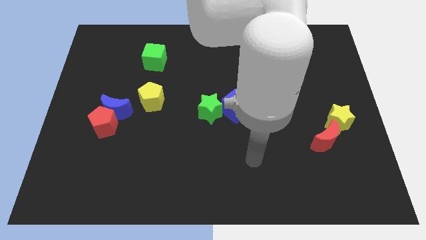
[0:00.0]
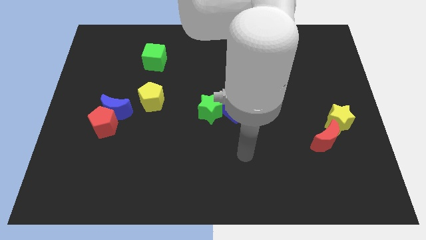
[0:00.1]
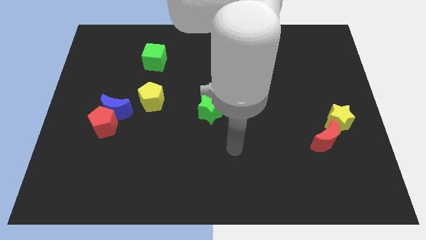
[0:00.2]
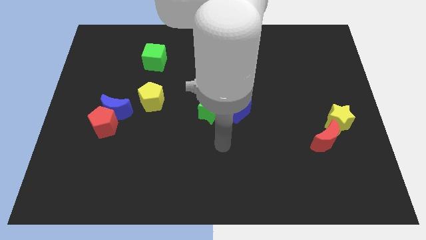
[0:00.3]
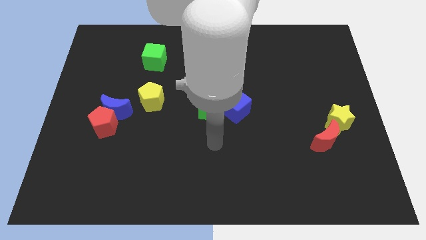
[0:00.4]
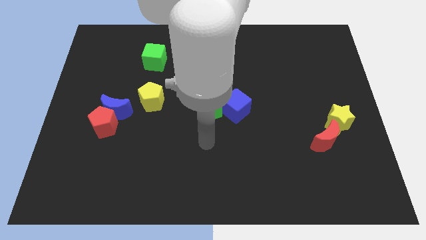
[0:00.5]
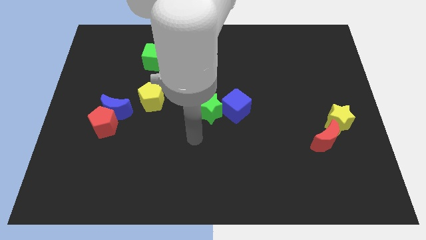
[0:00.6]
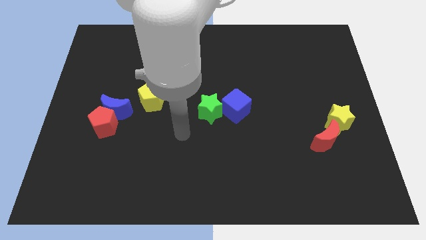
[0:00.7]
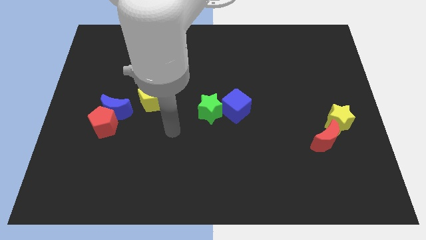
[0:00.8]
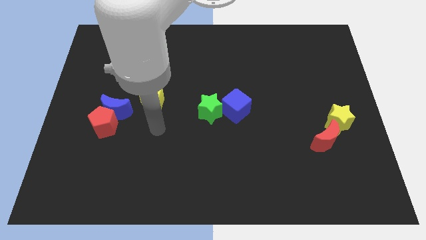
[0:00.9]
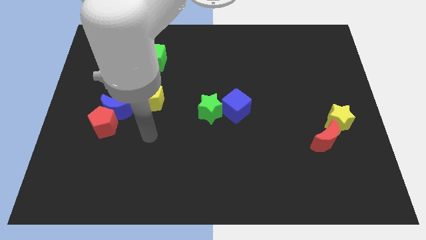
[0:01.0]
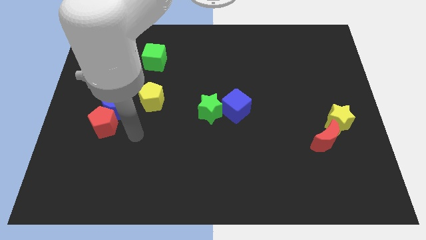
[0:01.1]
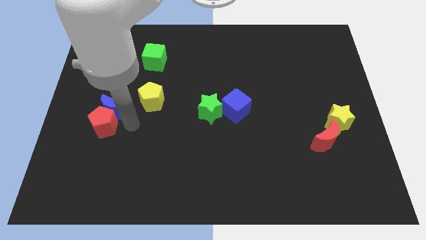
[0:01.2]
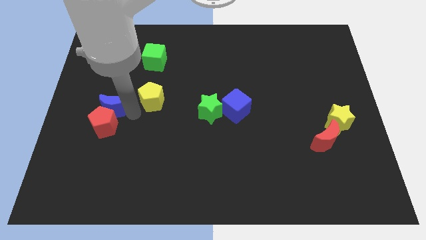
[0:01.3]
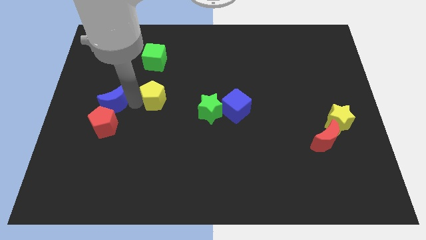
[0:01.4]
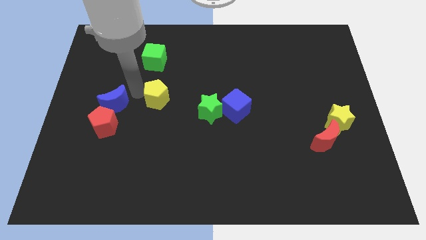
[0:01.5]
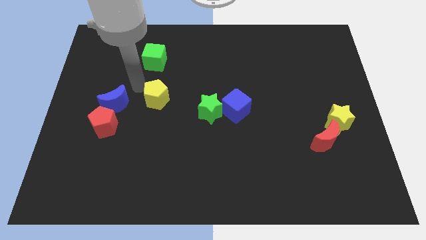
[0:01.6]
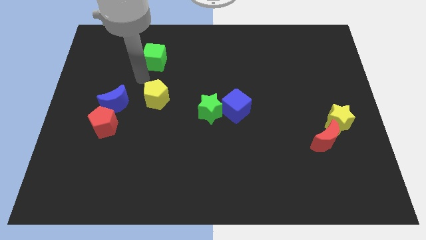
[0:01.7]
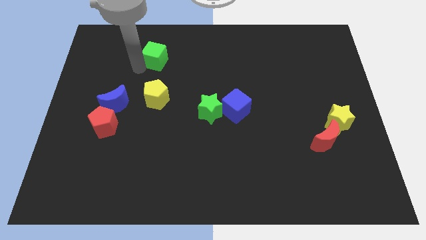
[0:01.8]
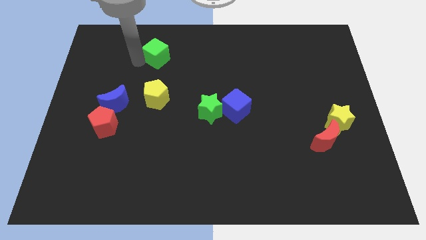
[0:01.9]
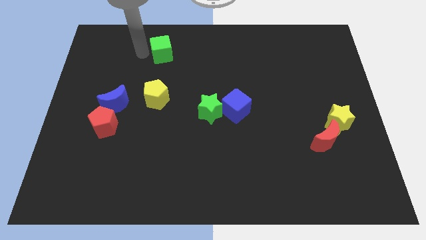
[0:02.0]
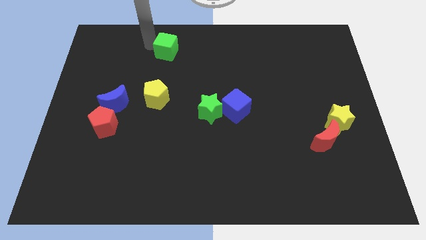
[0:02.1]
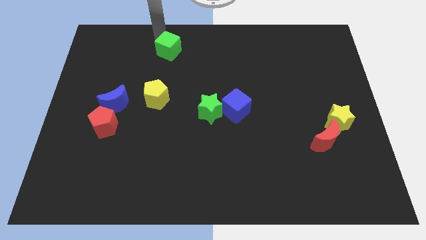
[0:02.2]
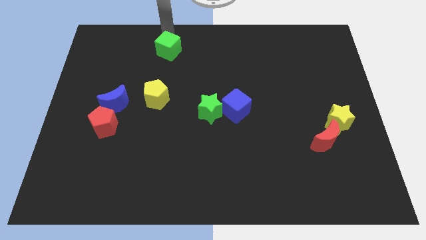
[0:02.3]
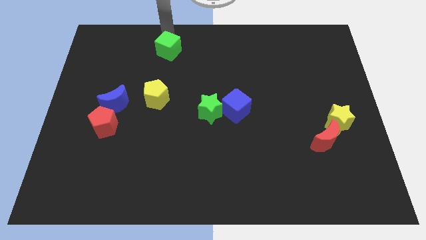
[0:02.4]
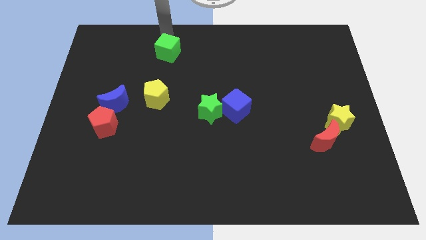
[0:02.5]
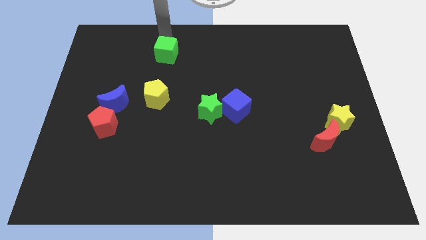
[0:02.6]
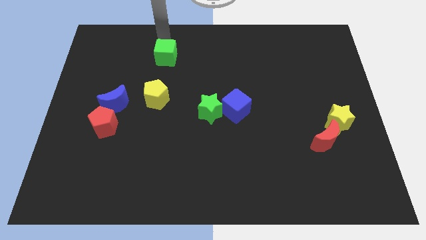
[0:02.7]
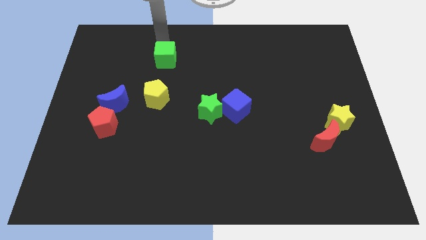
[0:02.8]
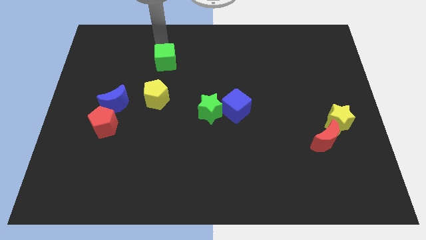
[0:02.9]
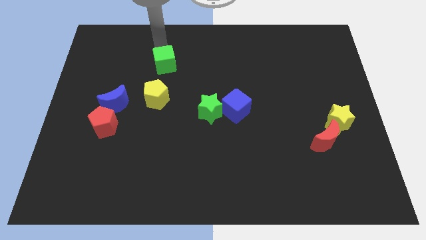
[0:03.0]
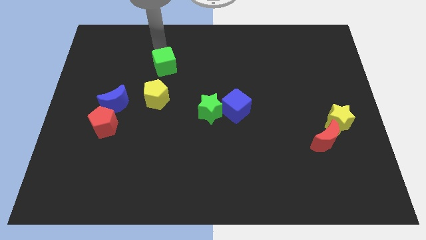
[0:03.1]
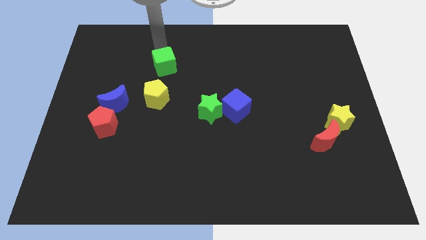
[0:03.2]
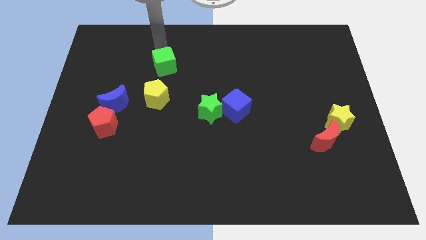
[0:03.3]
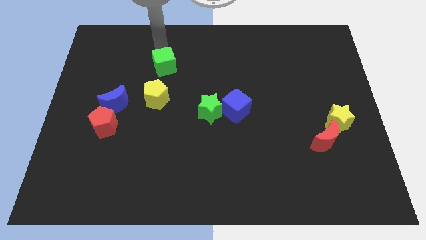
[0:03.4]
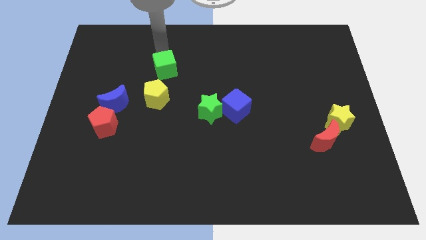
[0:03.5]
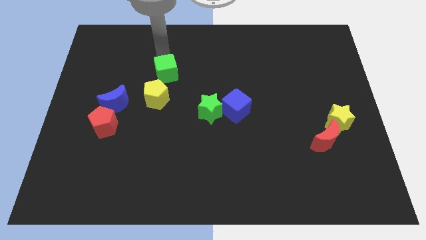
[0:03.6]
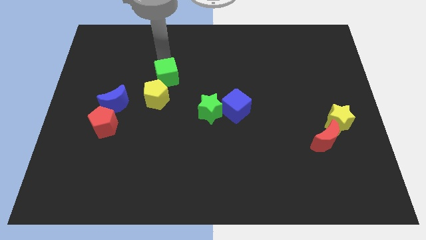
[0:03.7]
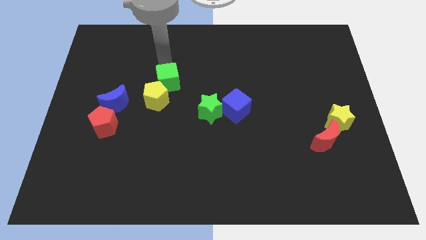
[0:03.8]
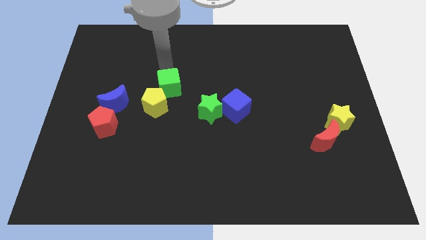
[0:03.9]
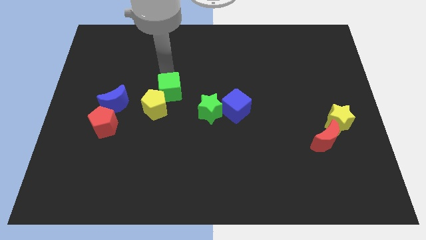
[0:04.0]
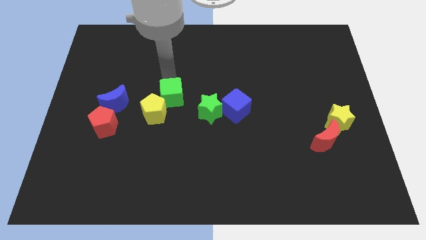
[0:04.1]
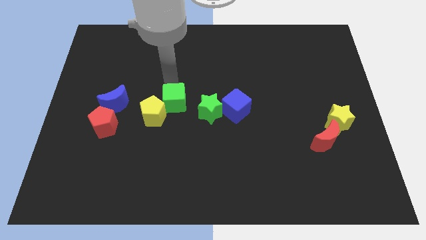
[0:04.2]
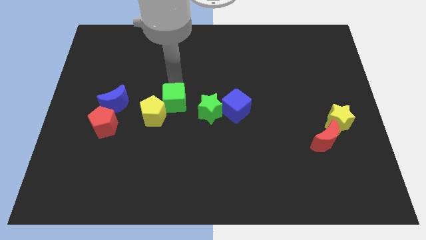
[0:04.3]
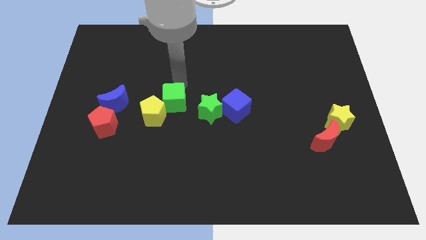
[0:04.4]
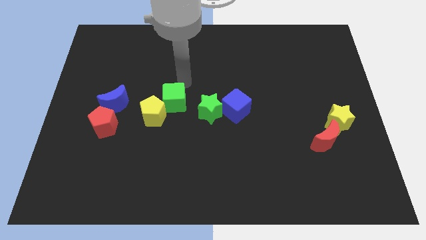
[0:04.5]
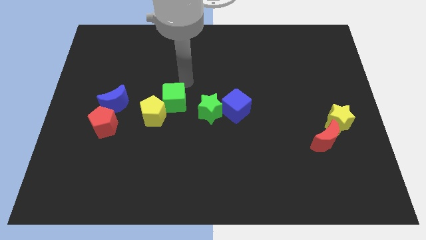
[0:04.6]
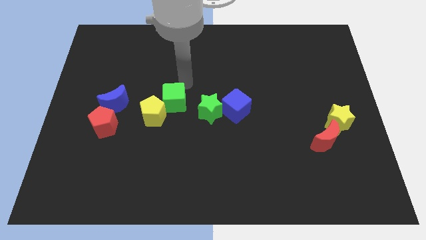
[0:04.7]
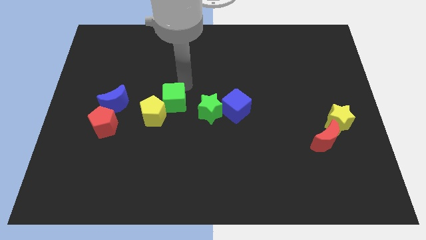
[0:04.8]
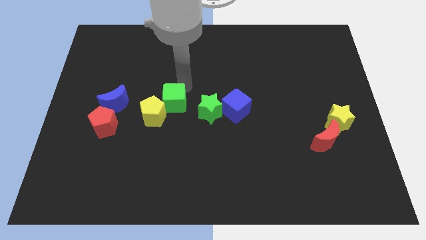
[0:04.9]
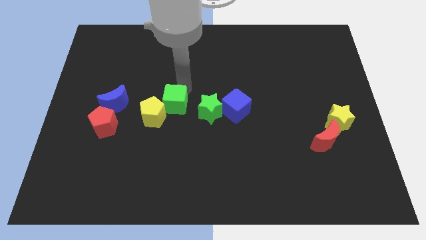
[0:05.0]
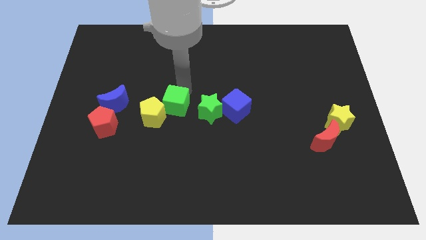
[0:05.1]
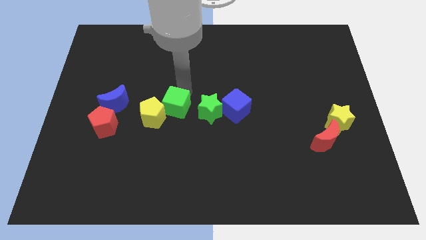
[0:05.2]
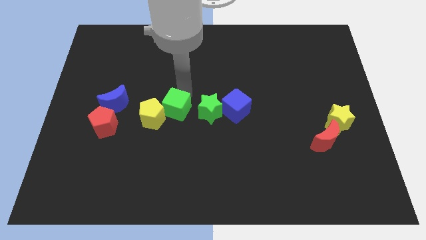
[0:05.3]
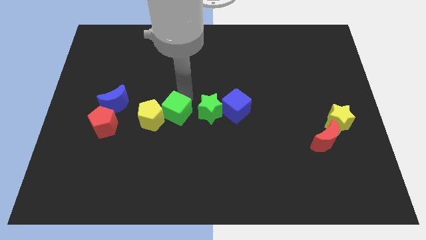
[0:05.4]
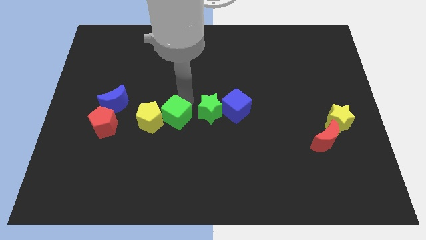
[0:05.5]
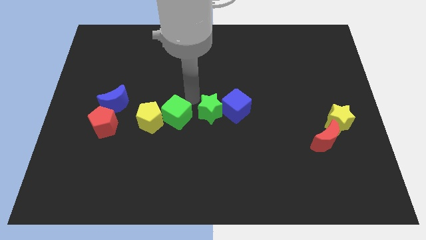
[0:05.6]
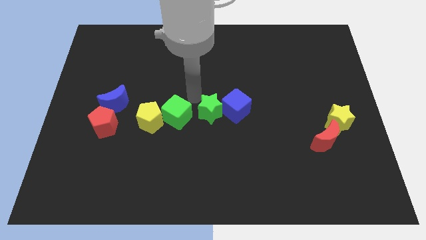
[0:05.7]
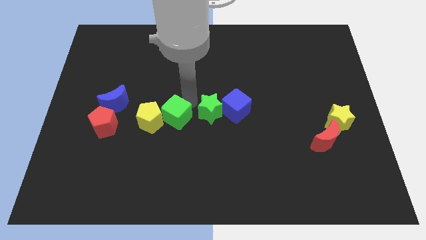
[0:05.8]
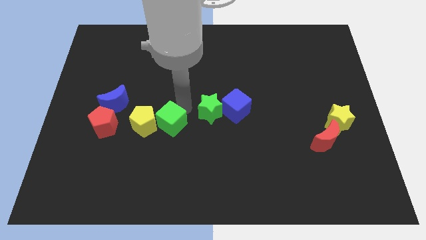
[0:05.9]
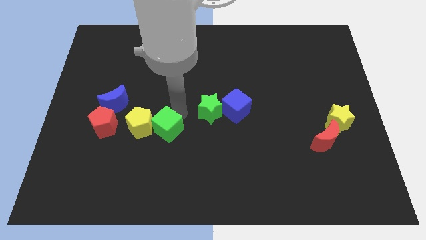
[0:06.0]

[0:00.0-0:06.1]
slide the green cube down

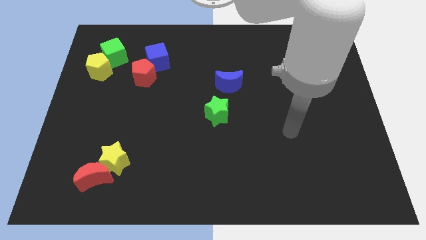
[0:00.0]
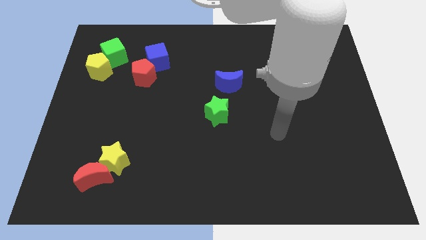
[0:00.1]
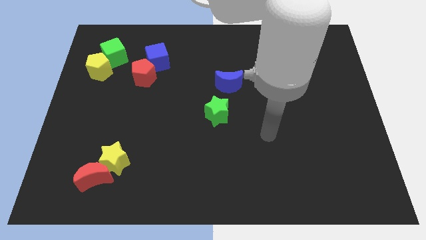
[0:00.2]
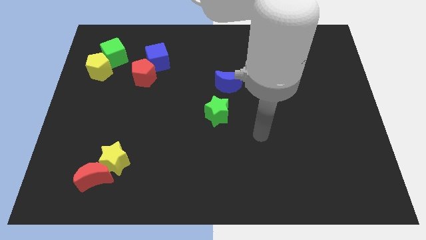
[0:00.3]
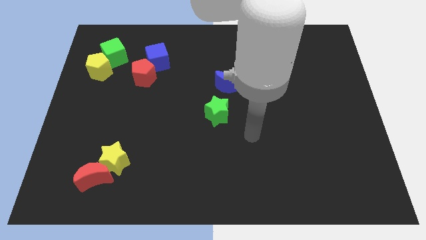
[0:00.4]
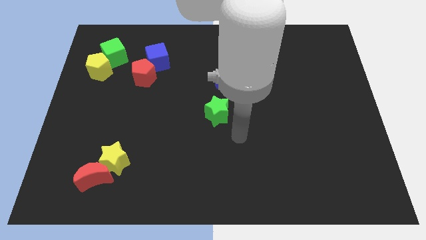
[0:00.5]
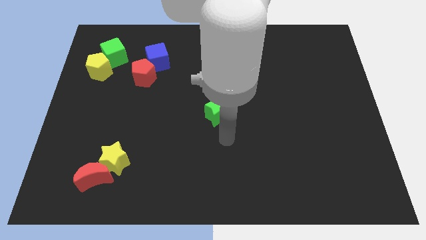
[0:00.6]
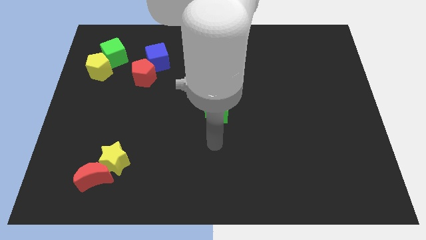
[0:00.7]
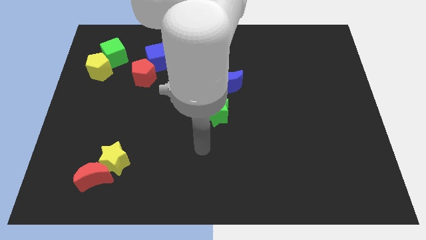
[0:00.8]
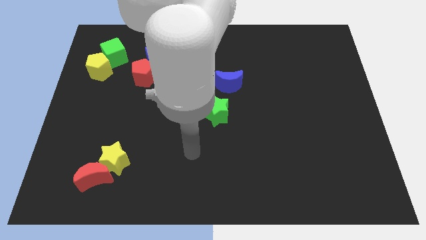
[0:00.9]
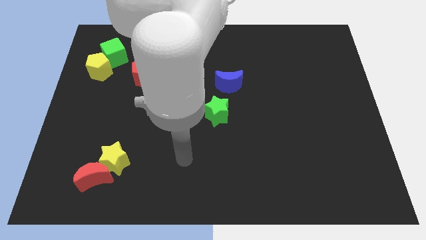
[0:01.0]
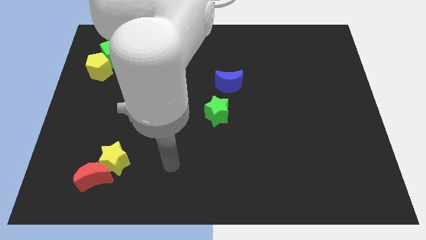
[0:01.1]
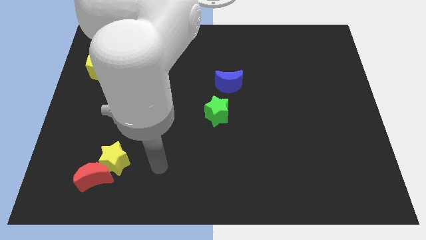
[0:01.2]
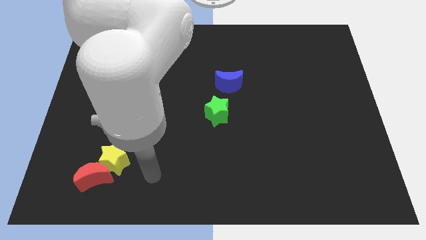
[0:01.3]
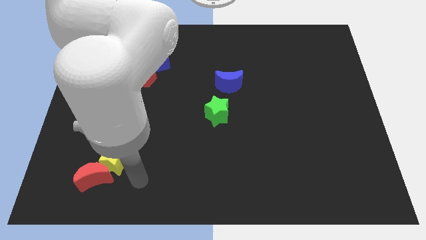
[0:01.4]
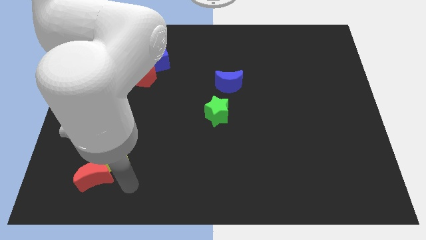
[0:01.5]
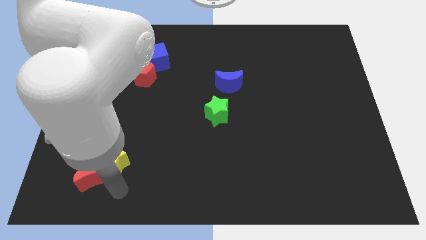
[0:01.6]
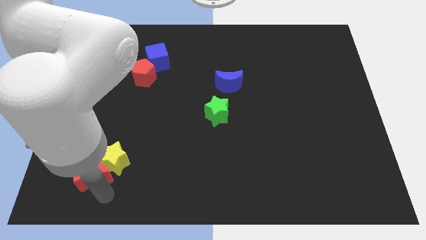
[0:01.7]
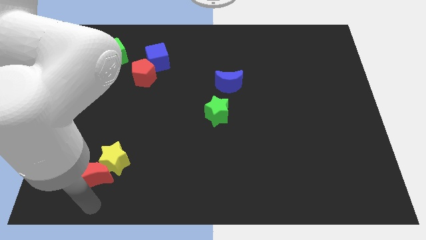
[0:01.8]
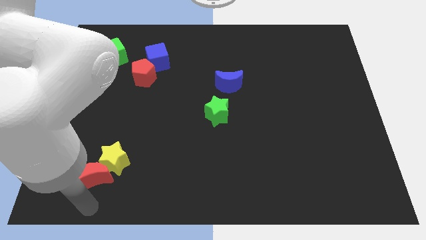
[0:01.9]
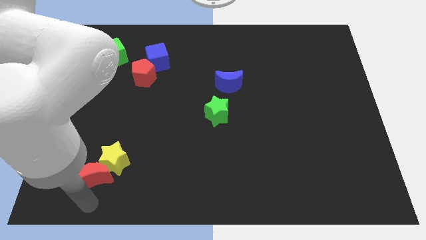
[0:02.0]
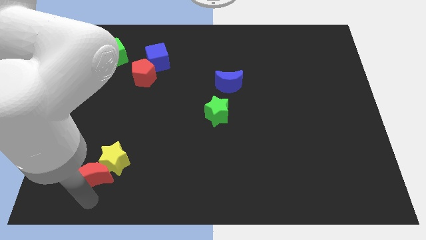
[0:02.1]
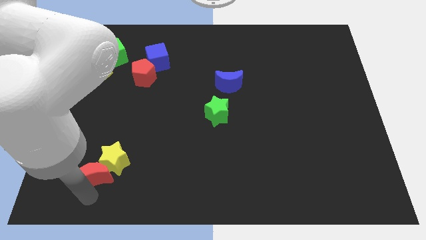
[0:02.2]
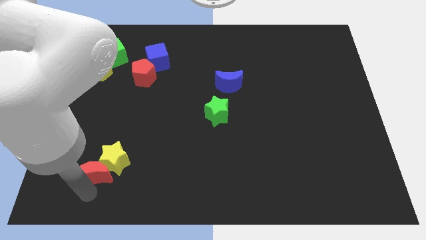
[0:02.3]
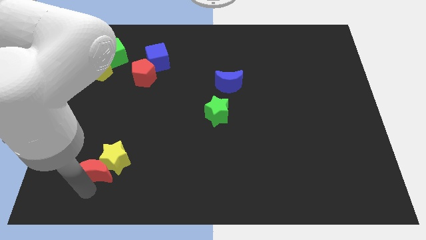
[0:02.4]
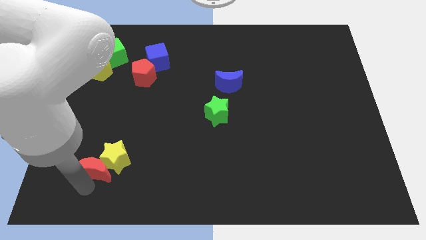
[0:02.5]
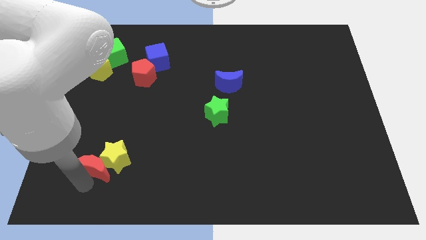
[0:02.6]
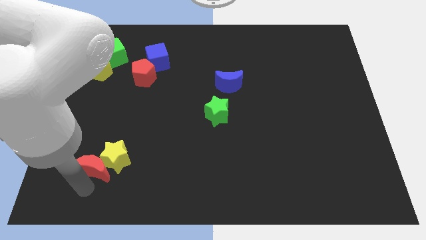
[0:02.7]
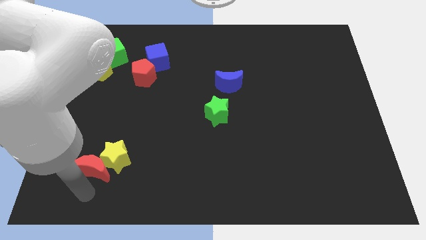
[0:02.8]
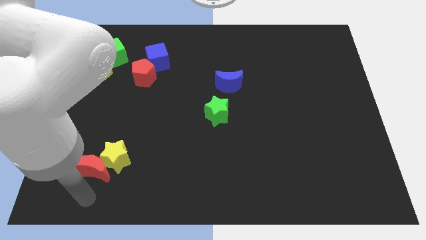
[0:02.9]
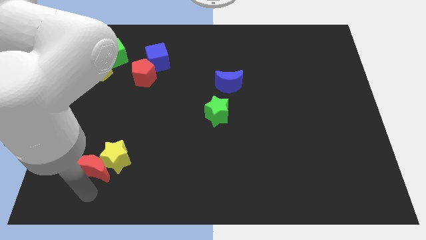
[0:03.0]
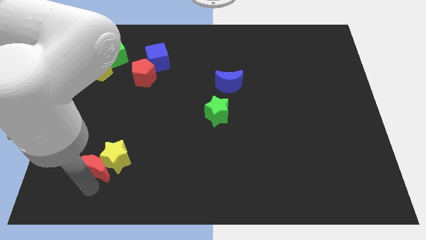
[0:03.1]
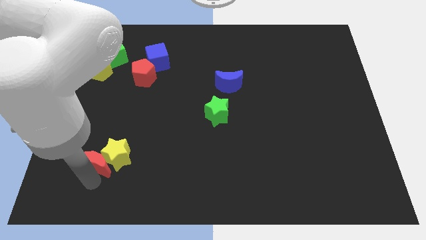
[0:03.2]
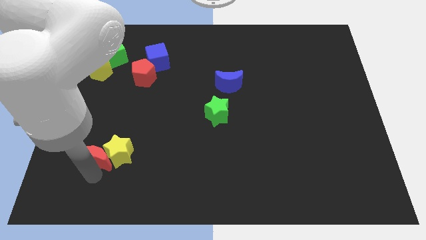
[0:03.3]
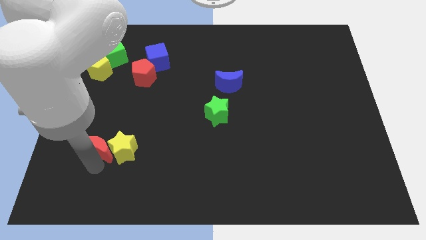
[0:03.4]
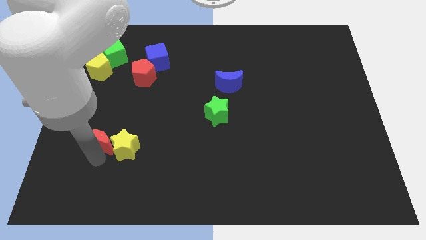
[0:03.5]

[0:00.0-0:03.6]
slide the red moon upwards somewhat
